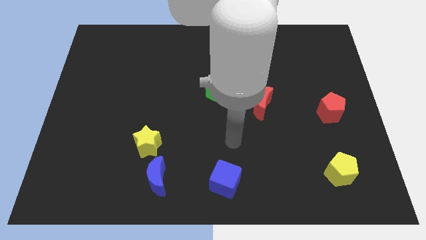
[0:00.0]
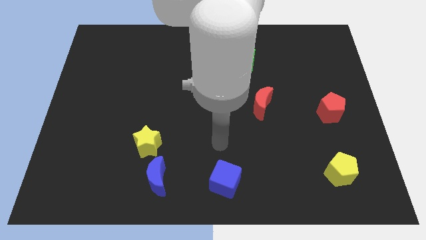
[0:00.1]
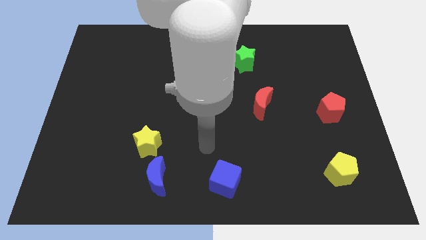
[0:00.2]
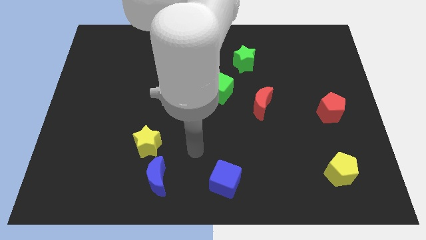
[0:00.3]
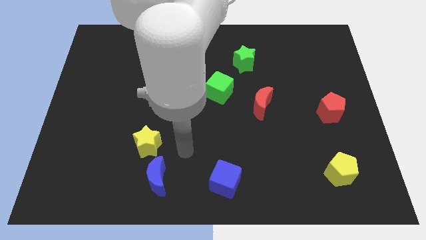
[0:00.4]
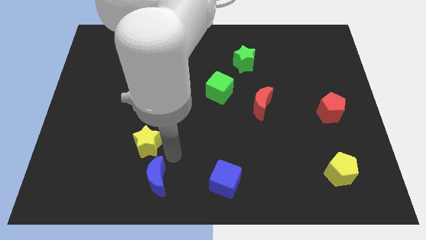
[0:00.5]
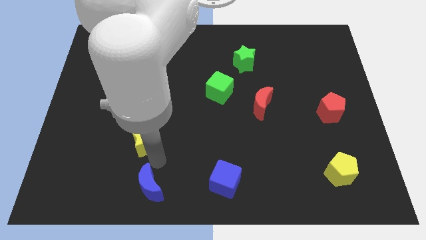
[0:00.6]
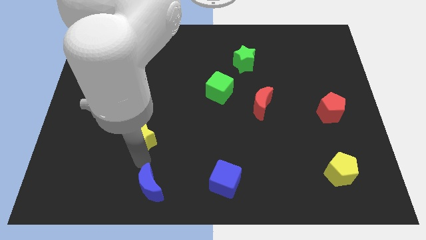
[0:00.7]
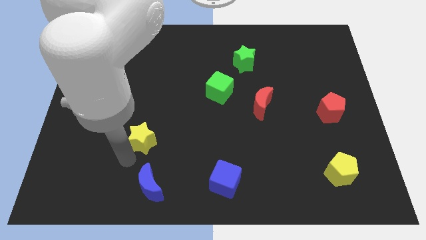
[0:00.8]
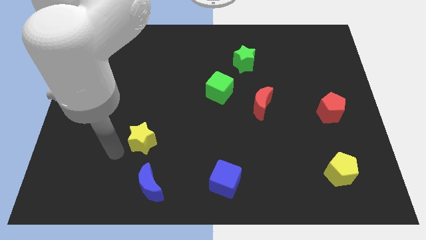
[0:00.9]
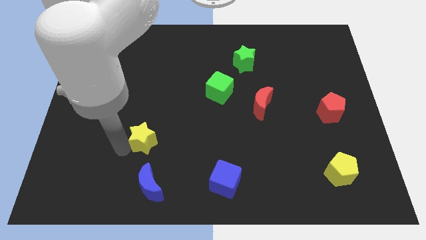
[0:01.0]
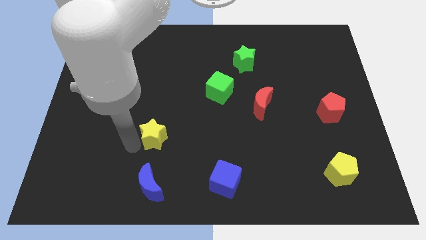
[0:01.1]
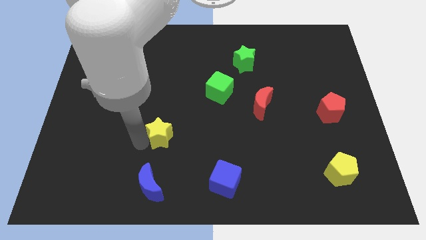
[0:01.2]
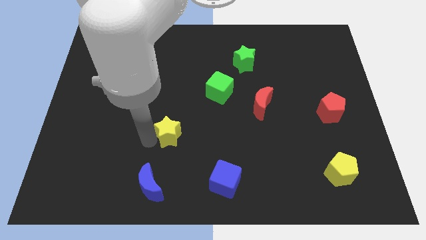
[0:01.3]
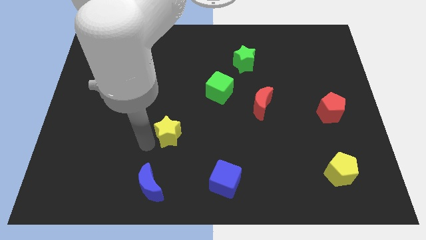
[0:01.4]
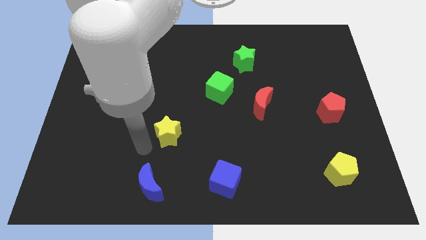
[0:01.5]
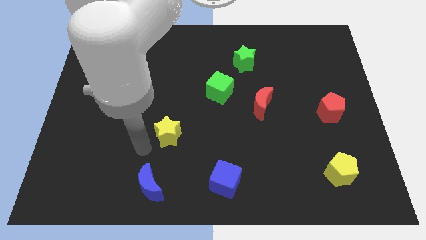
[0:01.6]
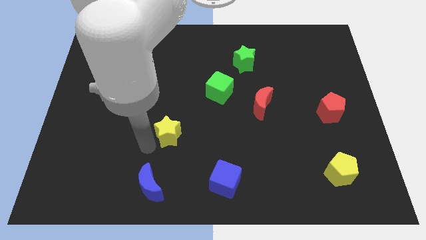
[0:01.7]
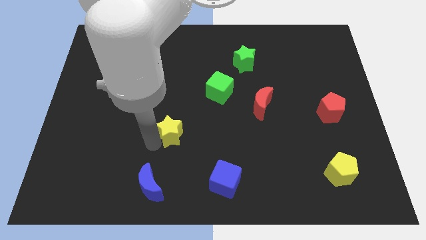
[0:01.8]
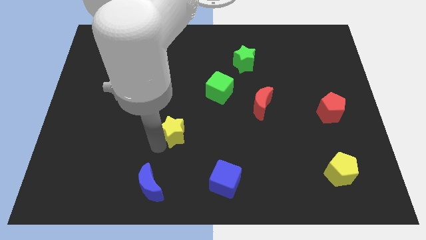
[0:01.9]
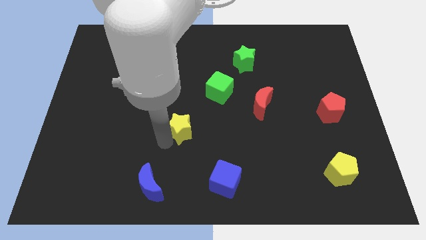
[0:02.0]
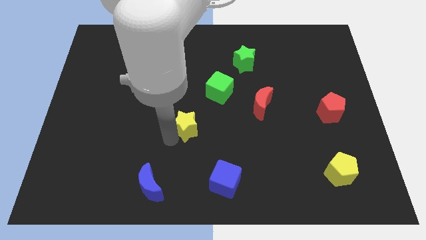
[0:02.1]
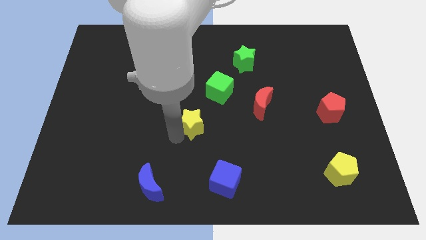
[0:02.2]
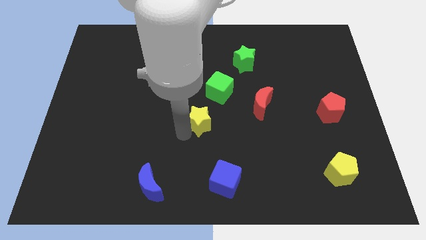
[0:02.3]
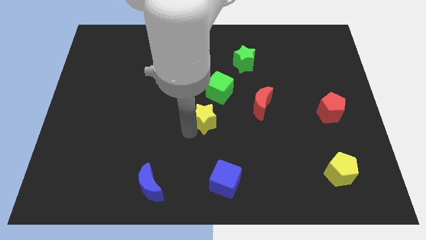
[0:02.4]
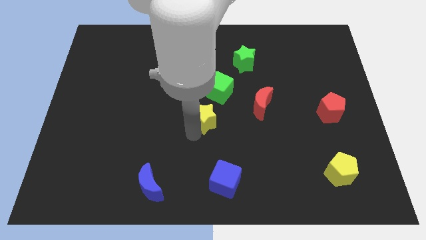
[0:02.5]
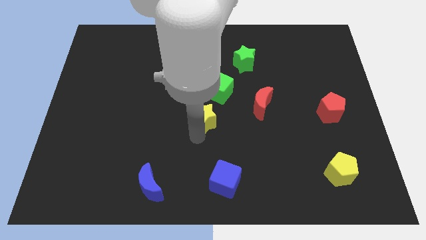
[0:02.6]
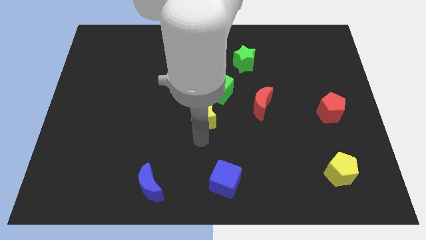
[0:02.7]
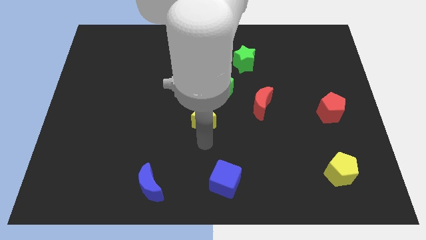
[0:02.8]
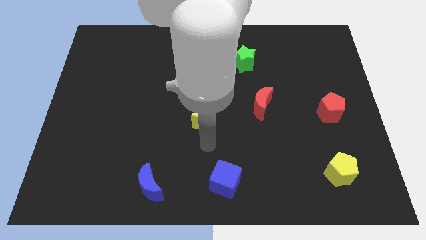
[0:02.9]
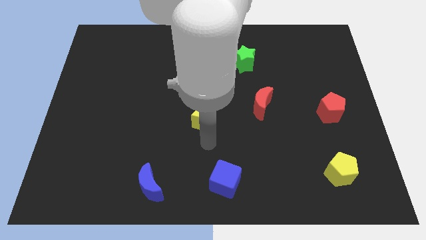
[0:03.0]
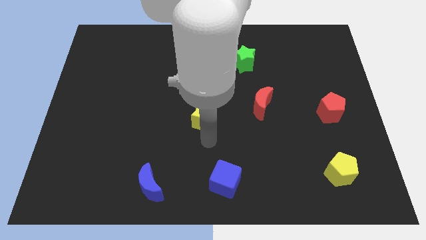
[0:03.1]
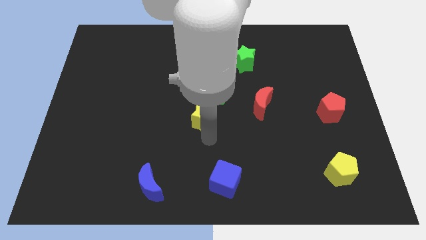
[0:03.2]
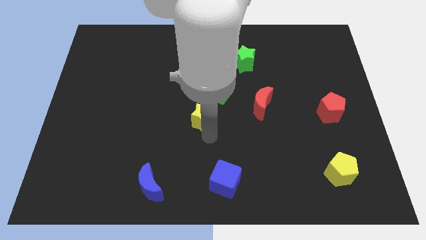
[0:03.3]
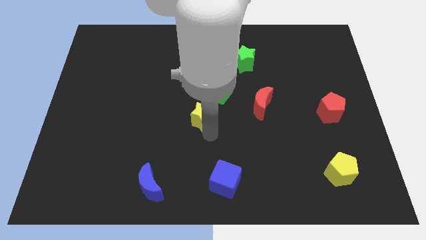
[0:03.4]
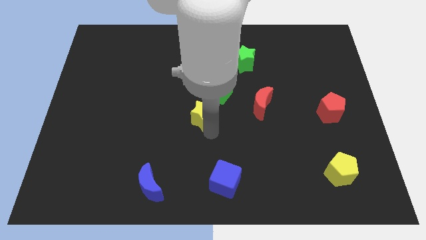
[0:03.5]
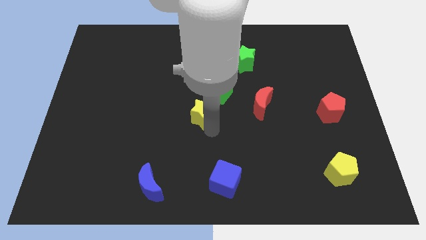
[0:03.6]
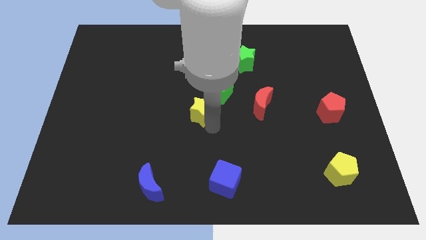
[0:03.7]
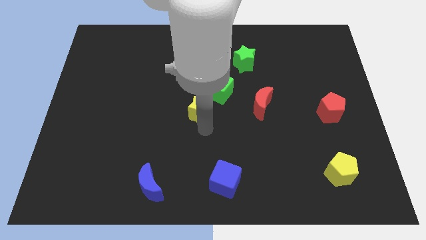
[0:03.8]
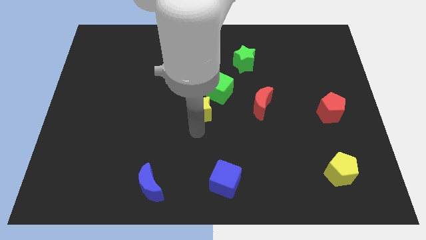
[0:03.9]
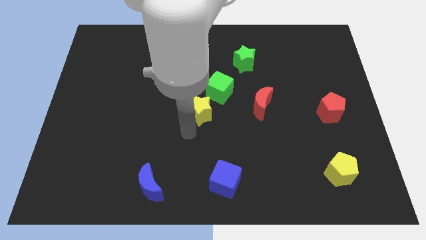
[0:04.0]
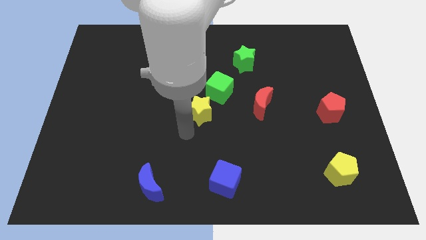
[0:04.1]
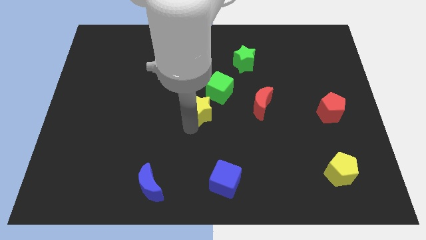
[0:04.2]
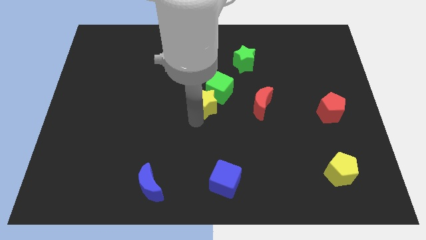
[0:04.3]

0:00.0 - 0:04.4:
put the yellow star next to the green cube

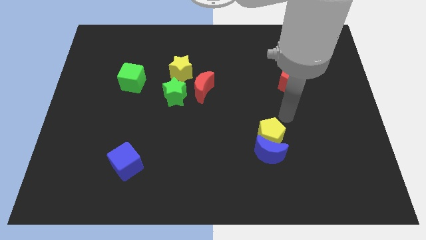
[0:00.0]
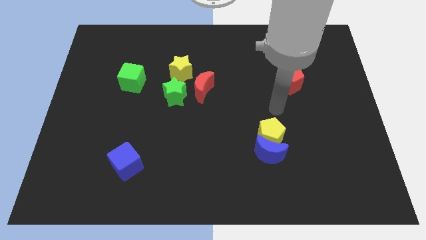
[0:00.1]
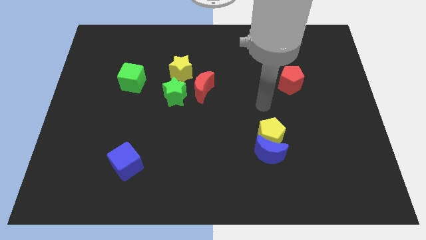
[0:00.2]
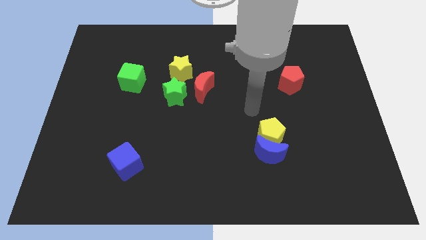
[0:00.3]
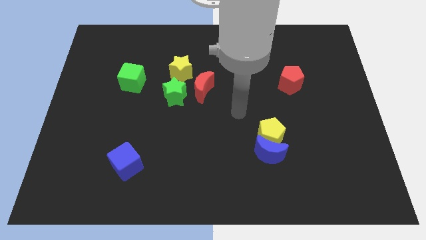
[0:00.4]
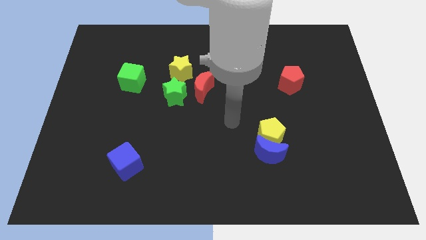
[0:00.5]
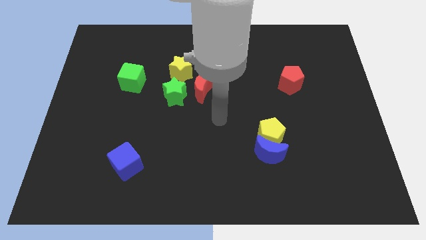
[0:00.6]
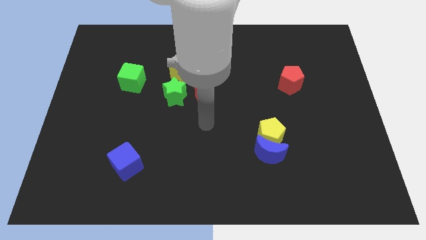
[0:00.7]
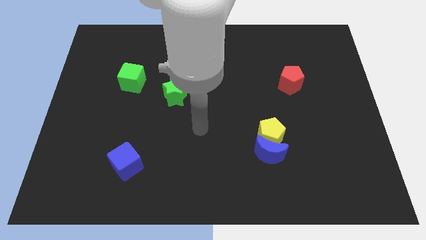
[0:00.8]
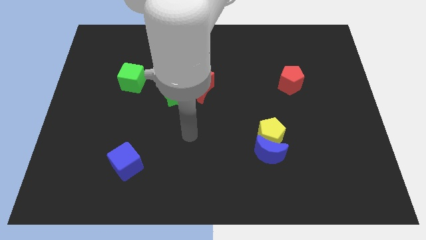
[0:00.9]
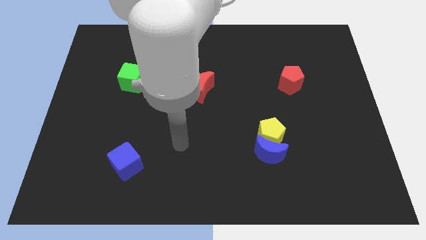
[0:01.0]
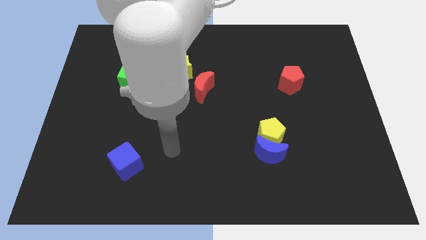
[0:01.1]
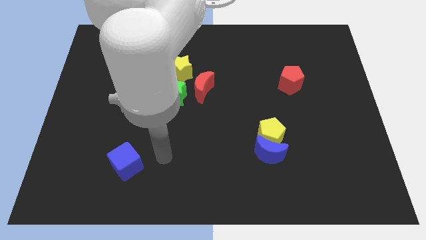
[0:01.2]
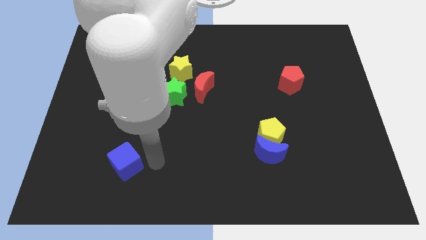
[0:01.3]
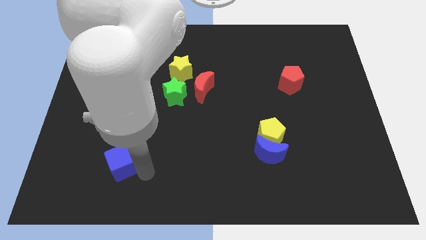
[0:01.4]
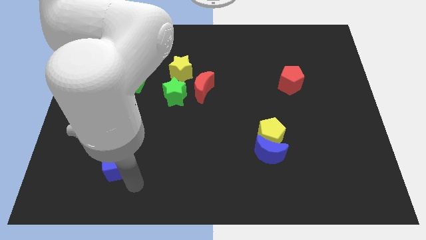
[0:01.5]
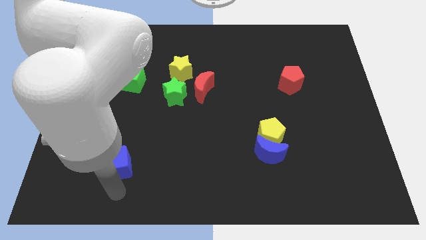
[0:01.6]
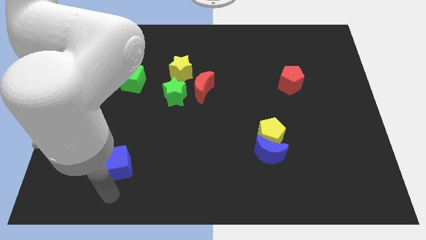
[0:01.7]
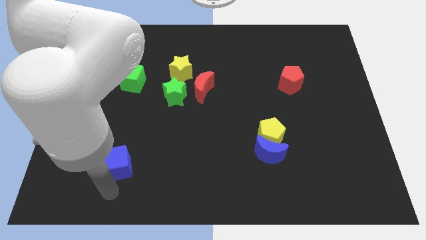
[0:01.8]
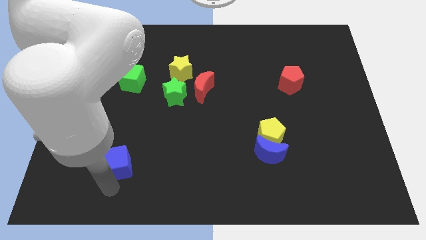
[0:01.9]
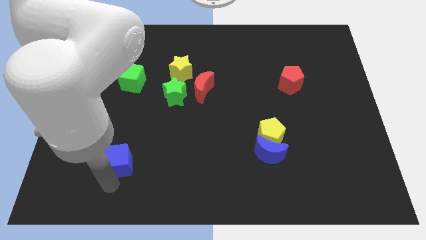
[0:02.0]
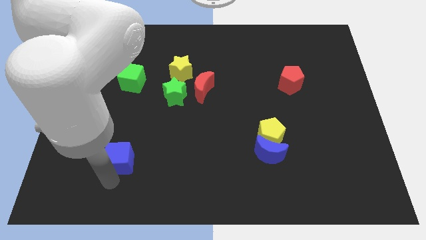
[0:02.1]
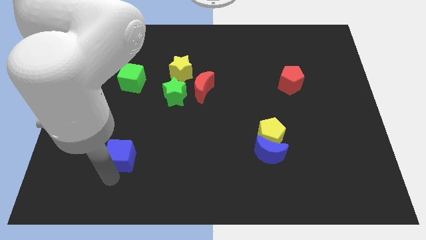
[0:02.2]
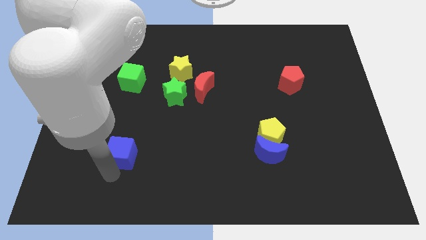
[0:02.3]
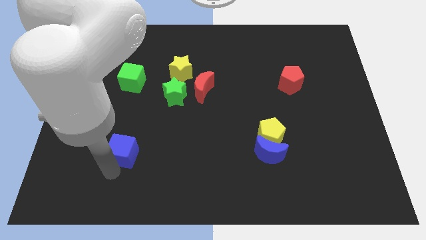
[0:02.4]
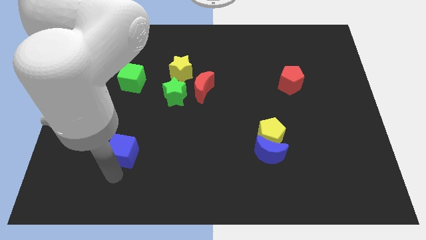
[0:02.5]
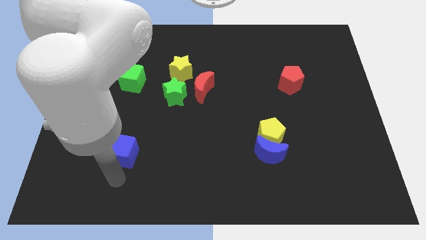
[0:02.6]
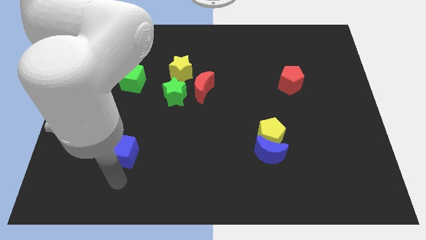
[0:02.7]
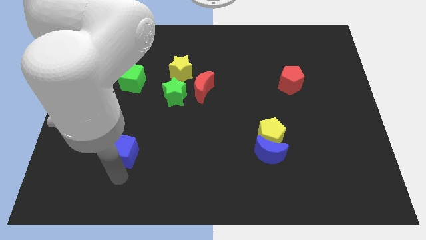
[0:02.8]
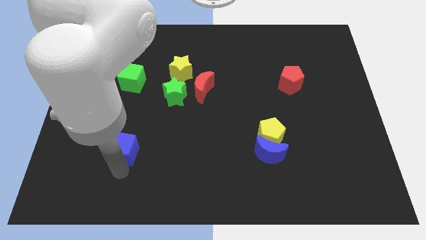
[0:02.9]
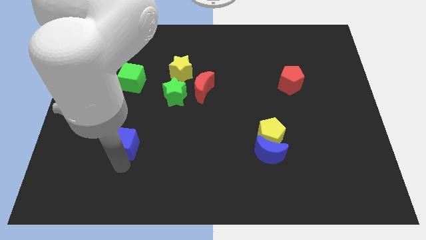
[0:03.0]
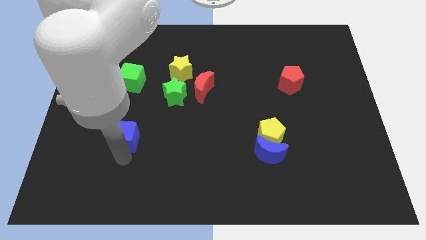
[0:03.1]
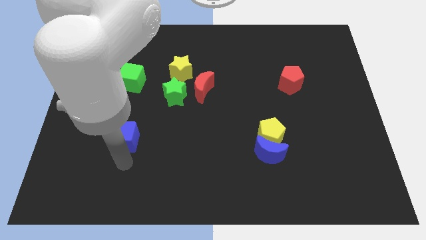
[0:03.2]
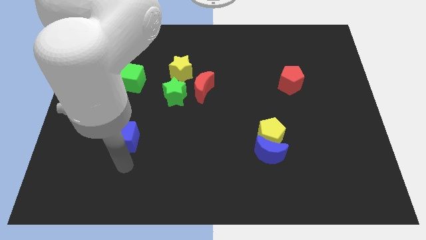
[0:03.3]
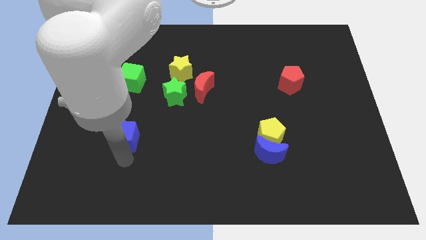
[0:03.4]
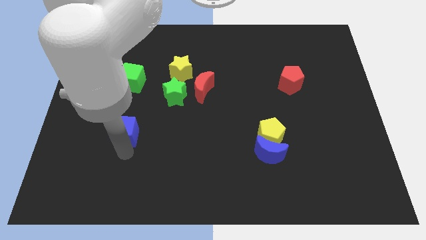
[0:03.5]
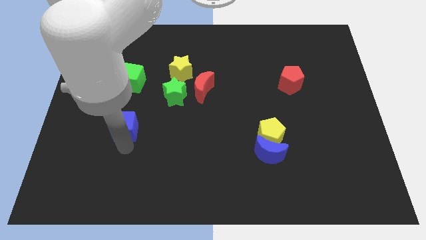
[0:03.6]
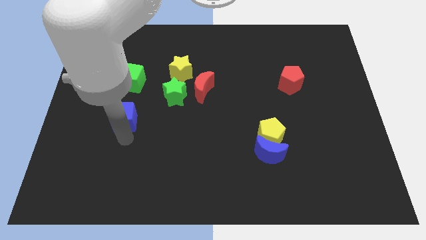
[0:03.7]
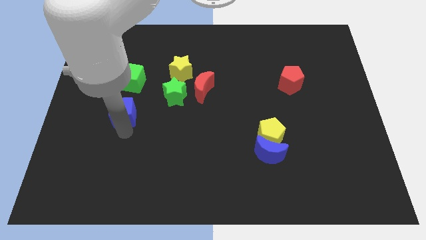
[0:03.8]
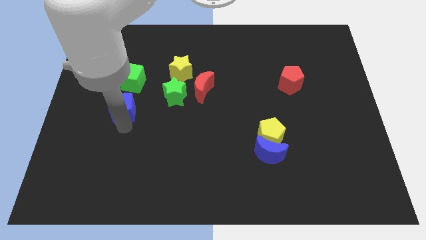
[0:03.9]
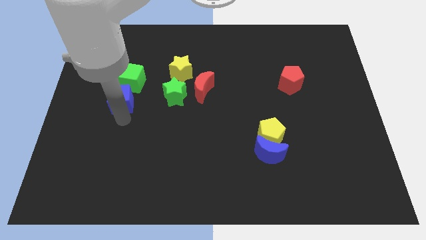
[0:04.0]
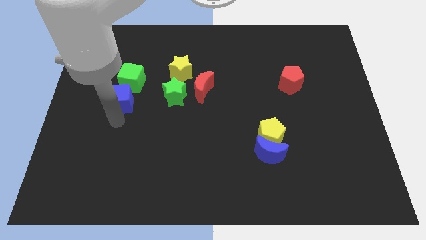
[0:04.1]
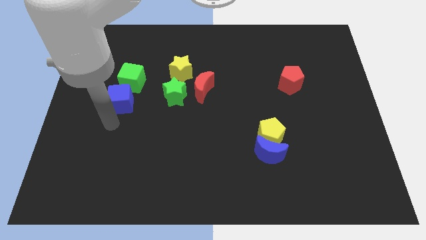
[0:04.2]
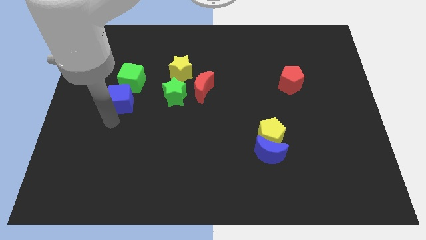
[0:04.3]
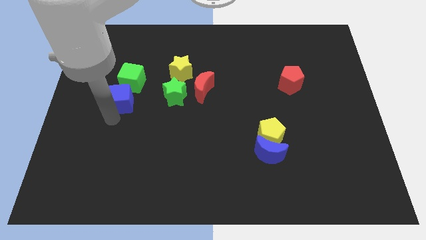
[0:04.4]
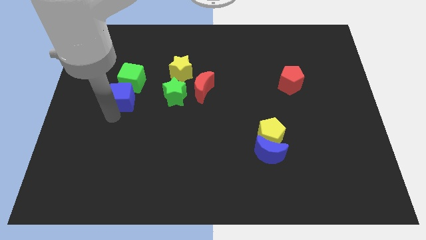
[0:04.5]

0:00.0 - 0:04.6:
put the blue cube towards the green cube
